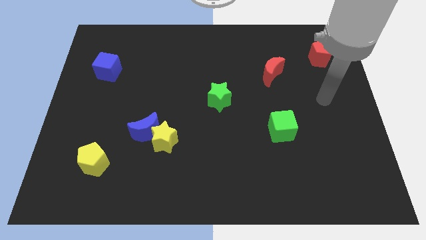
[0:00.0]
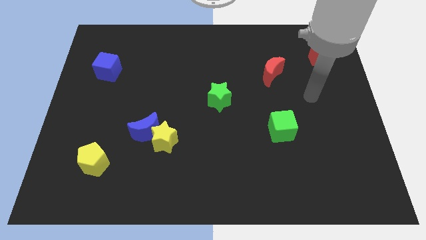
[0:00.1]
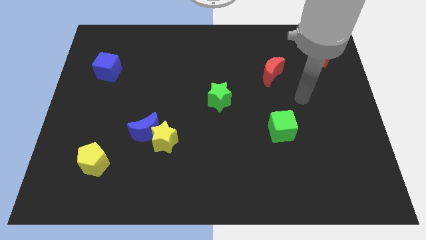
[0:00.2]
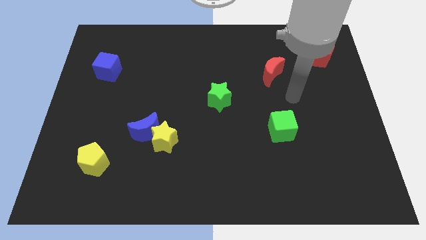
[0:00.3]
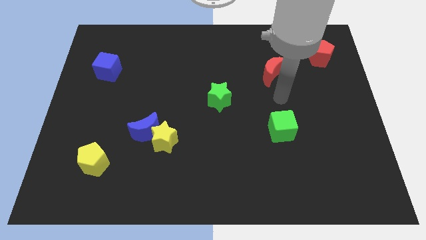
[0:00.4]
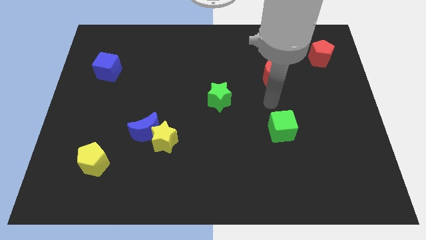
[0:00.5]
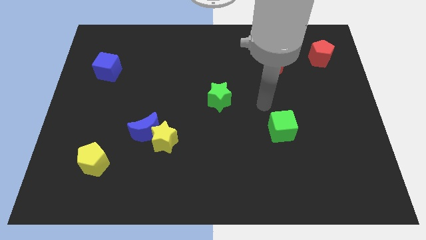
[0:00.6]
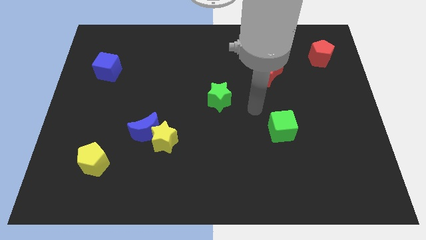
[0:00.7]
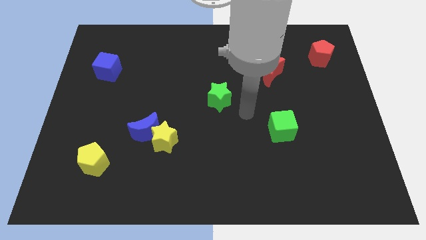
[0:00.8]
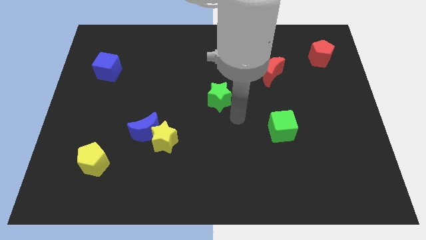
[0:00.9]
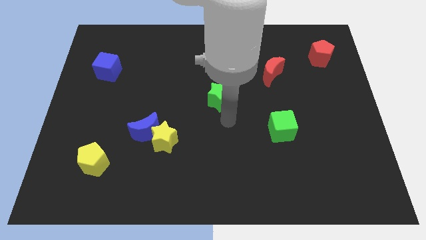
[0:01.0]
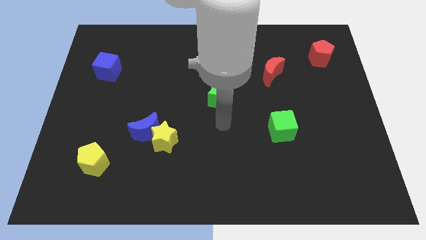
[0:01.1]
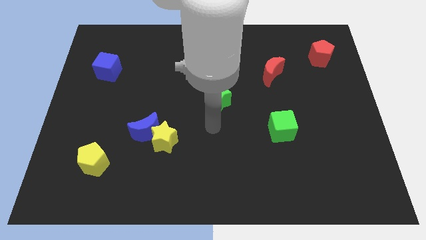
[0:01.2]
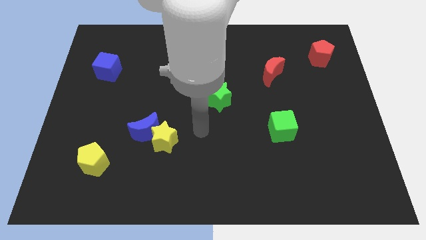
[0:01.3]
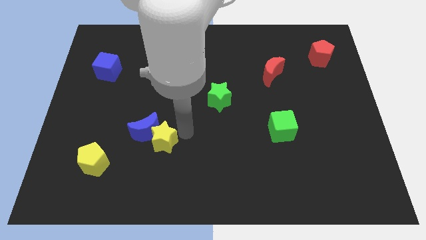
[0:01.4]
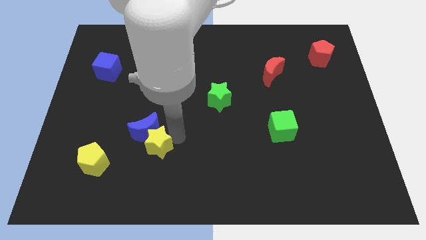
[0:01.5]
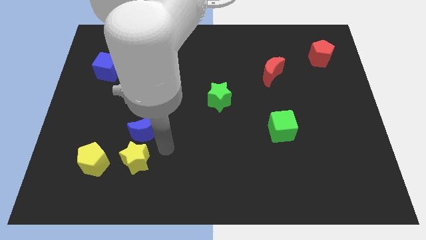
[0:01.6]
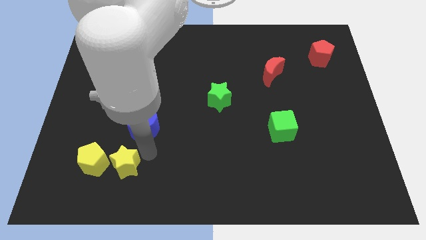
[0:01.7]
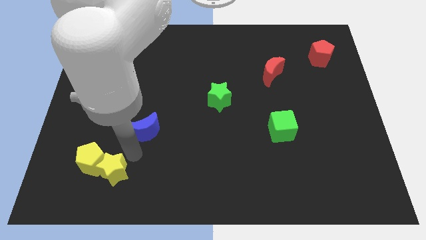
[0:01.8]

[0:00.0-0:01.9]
pull the blue moon apart from the yellow star

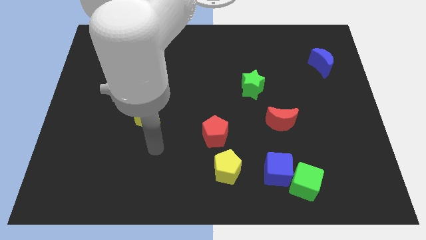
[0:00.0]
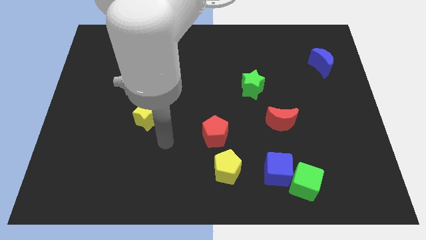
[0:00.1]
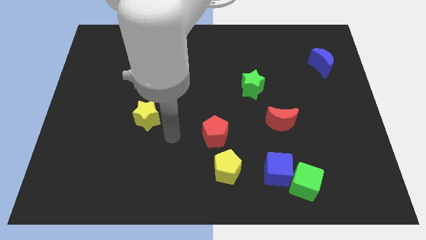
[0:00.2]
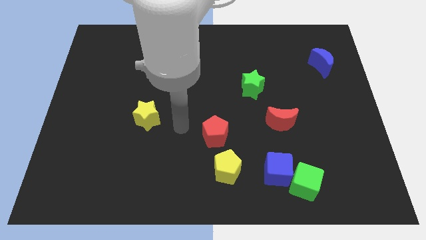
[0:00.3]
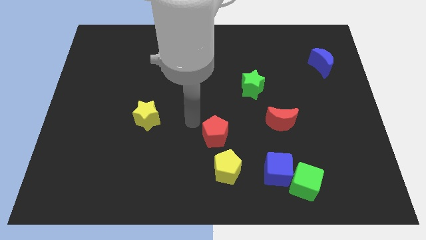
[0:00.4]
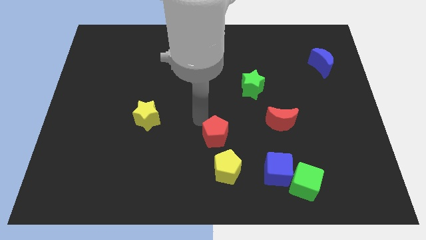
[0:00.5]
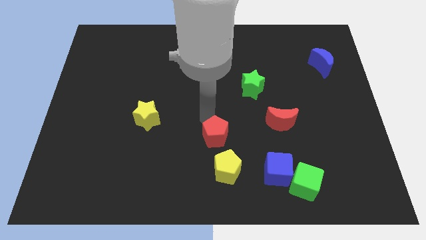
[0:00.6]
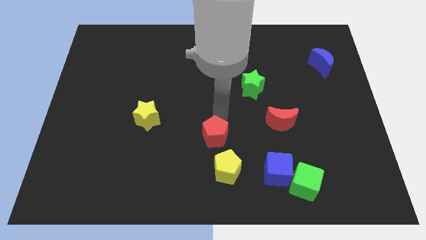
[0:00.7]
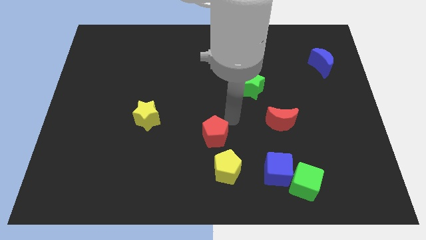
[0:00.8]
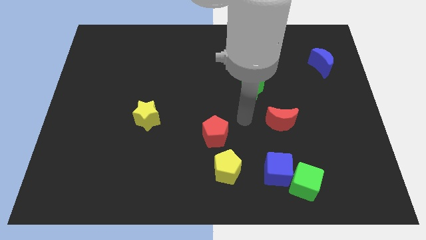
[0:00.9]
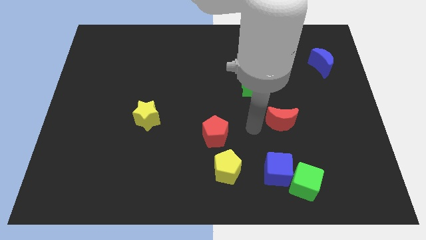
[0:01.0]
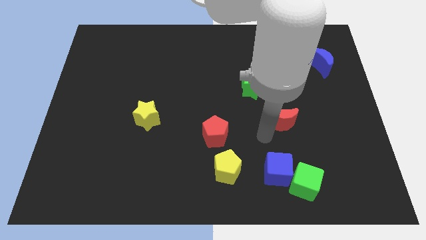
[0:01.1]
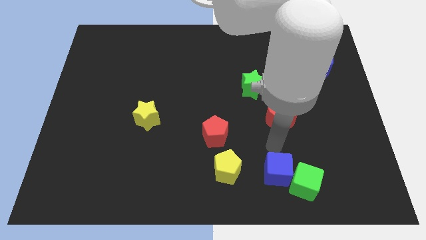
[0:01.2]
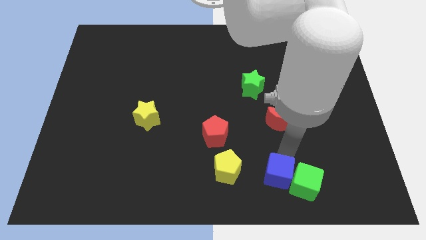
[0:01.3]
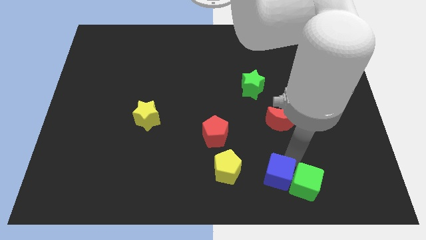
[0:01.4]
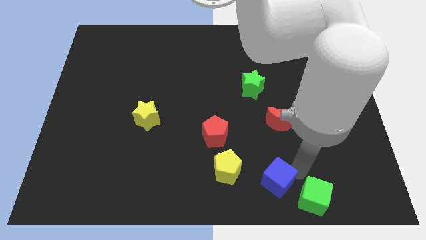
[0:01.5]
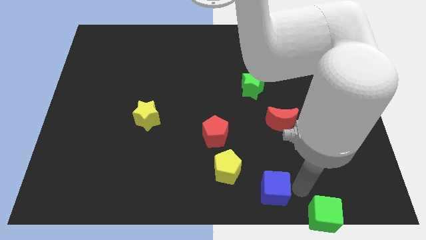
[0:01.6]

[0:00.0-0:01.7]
separate the blue cube from the green cube

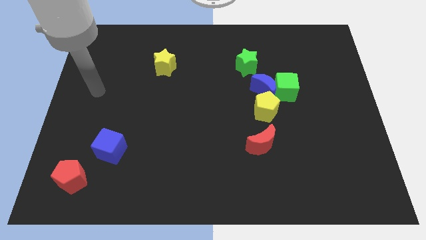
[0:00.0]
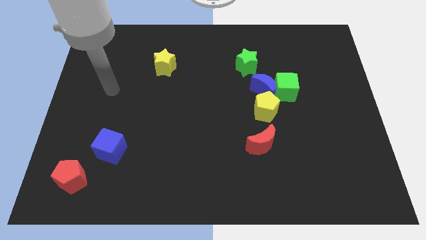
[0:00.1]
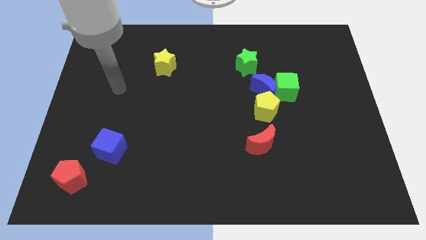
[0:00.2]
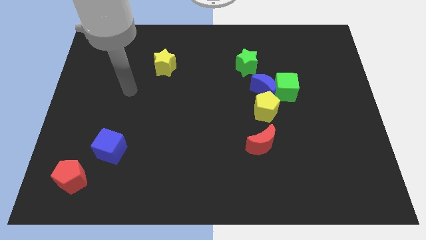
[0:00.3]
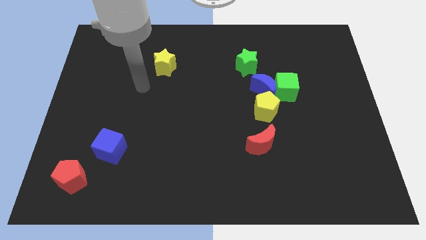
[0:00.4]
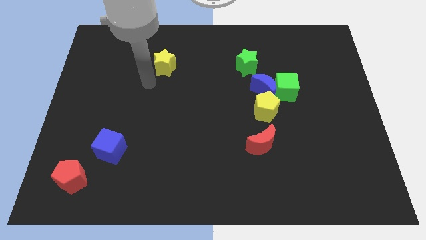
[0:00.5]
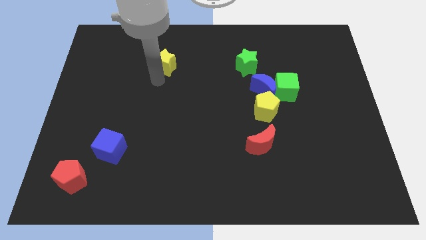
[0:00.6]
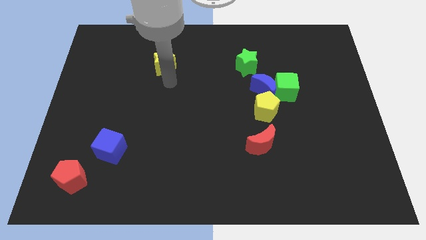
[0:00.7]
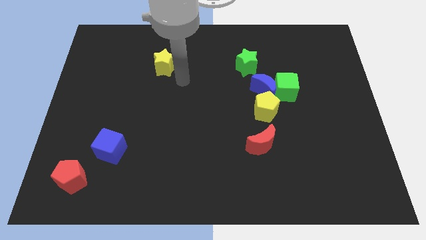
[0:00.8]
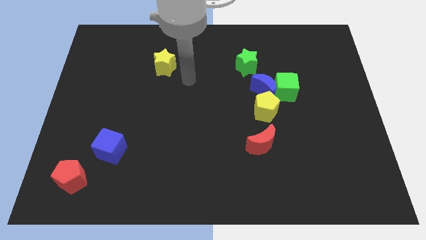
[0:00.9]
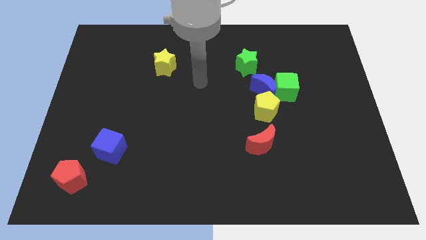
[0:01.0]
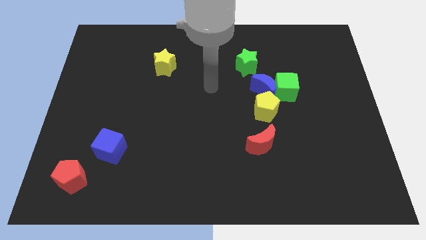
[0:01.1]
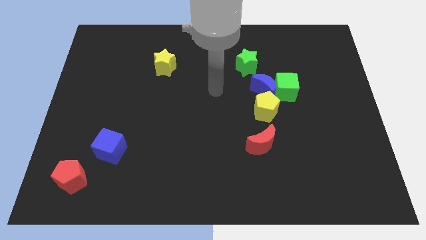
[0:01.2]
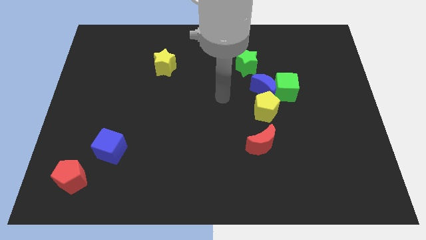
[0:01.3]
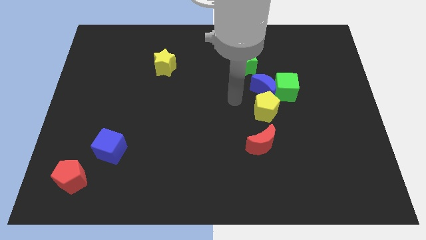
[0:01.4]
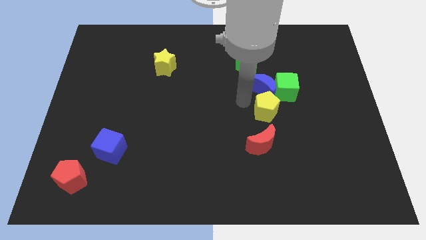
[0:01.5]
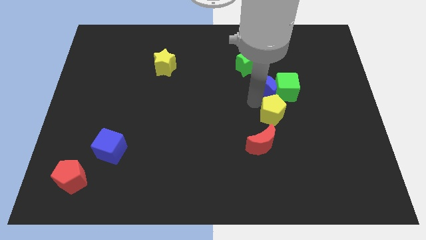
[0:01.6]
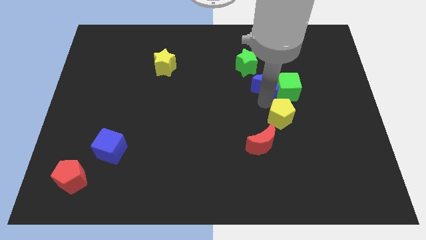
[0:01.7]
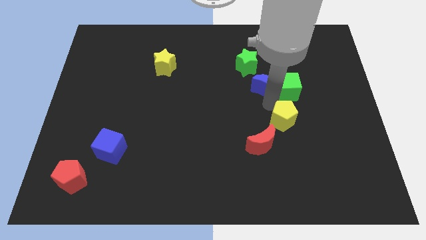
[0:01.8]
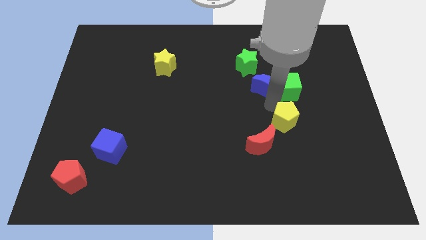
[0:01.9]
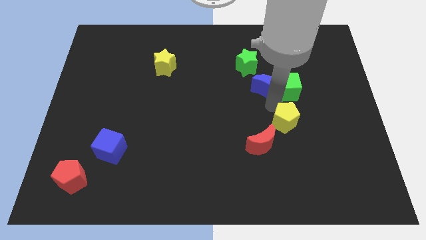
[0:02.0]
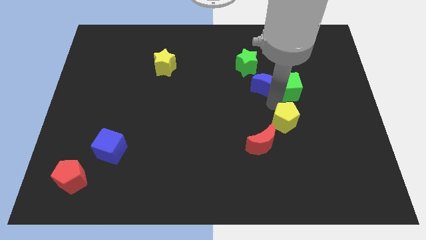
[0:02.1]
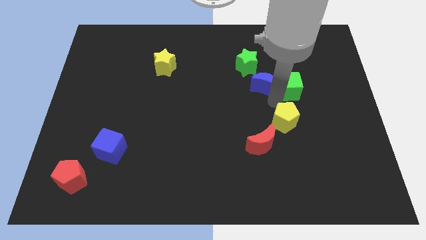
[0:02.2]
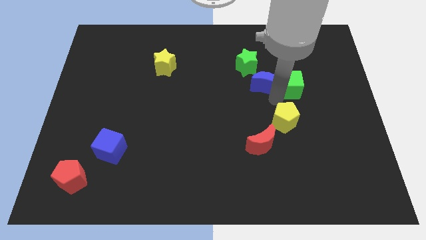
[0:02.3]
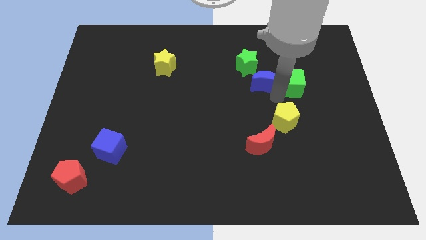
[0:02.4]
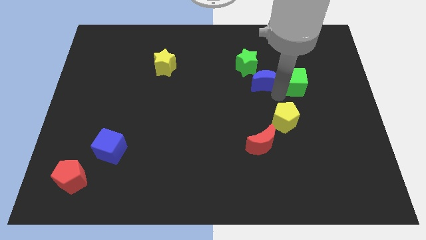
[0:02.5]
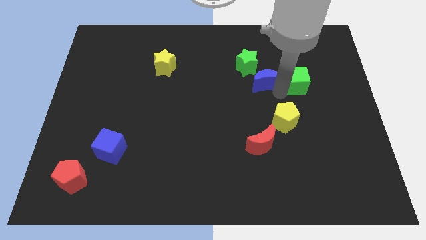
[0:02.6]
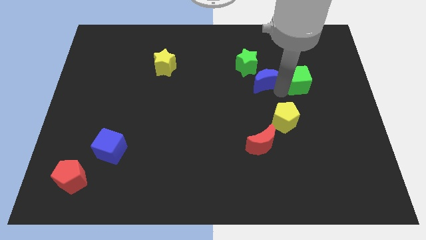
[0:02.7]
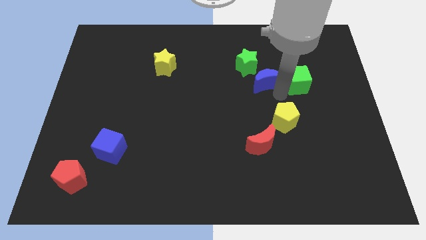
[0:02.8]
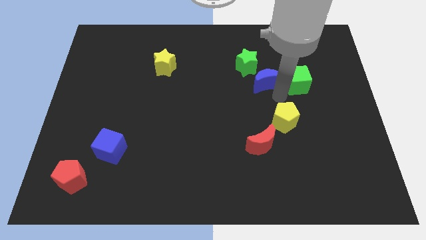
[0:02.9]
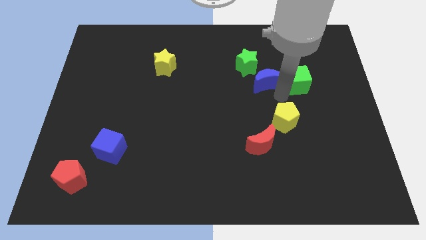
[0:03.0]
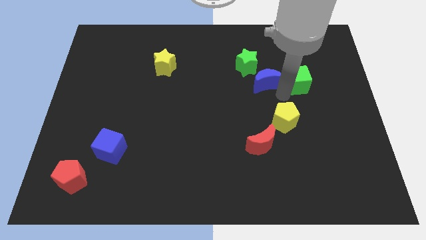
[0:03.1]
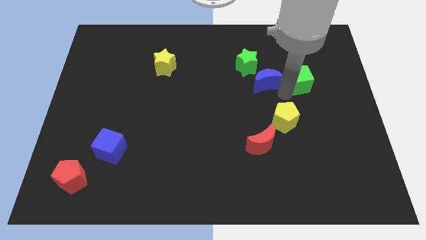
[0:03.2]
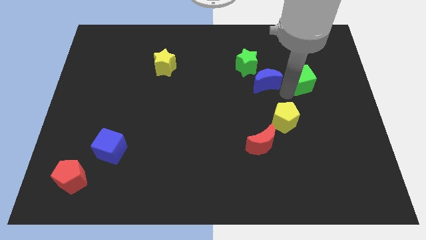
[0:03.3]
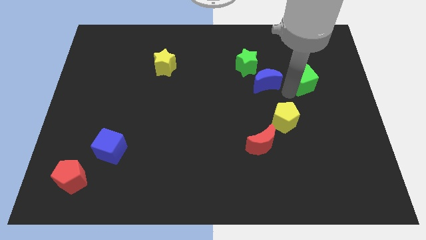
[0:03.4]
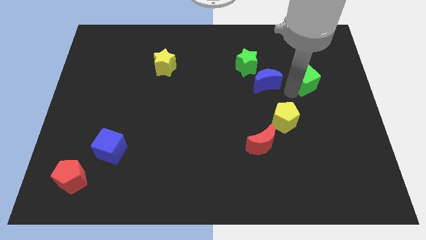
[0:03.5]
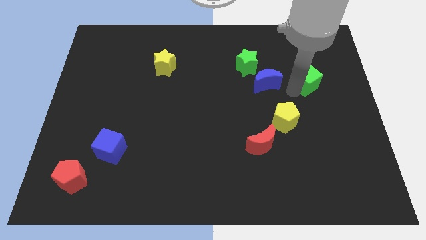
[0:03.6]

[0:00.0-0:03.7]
move the green cube away from the blue moon and yellow pentagon

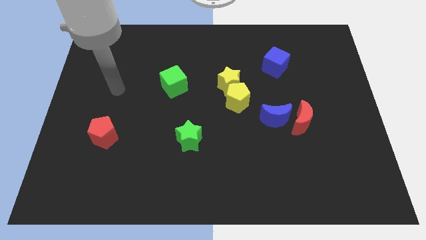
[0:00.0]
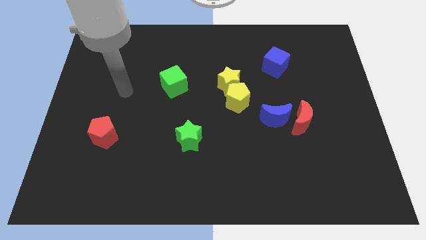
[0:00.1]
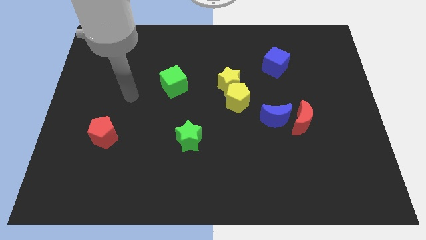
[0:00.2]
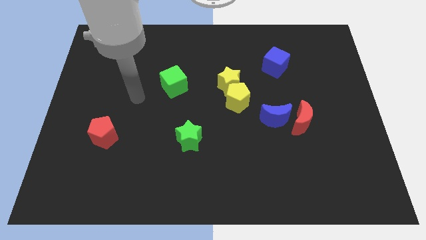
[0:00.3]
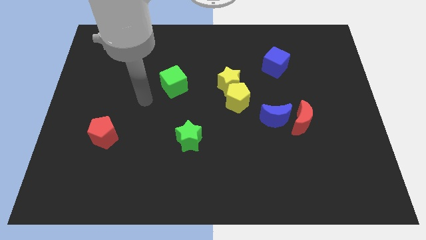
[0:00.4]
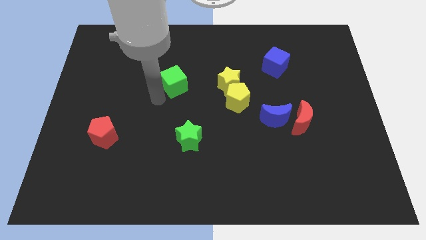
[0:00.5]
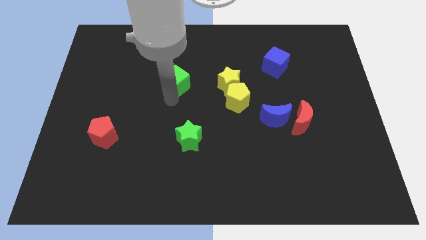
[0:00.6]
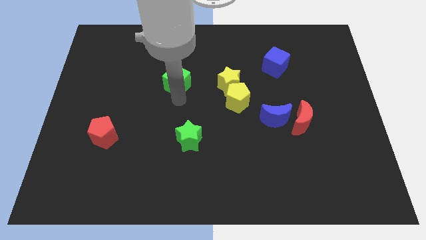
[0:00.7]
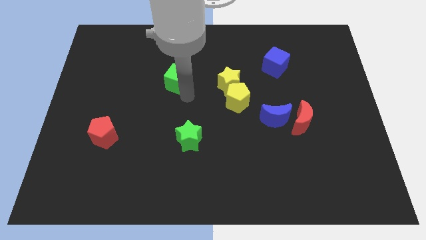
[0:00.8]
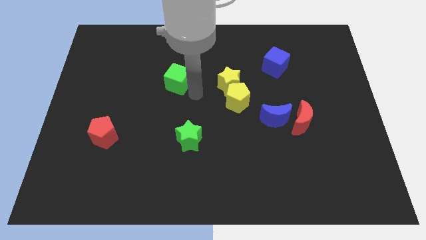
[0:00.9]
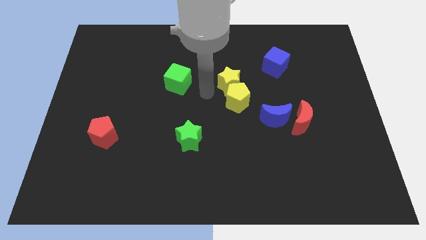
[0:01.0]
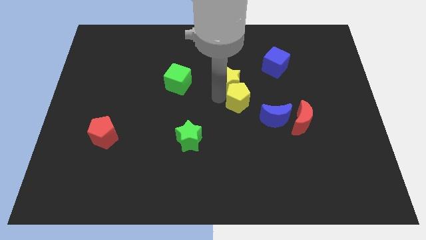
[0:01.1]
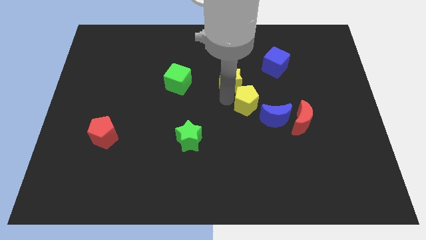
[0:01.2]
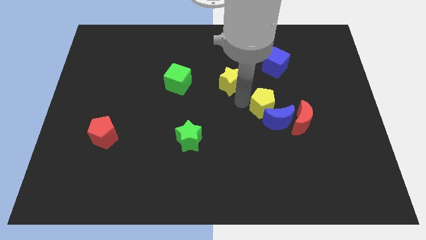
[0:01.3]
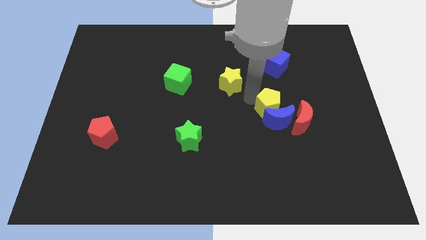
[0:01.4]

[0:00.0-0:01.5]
move the yellow star away from the yellow pentagon

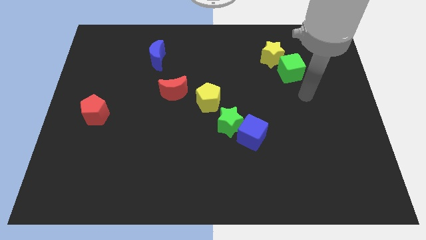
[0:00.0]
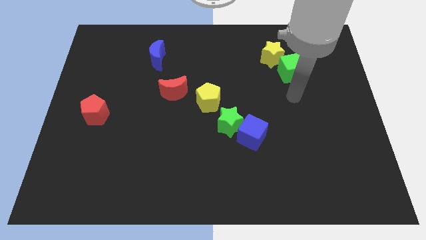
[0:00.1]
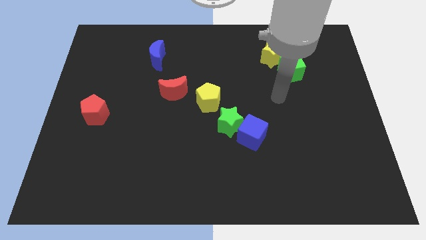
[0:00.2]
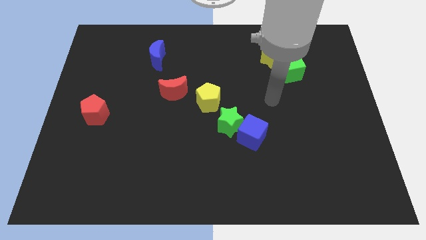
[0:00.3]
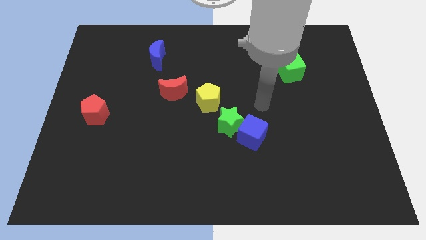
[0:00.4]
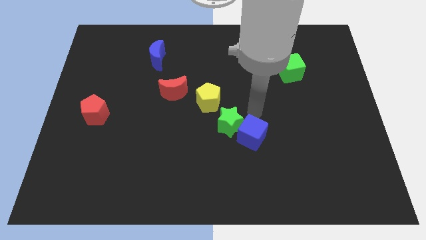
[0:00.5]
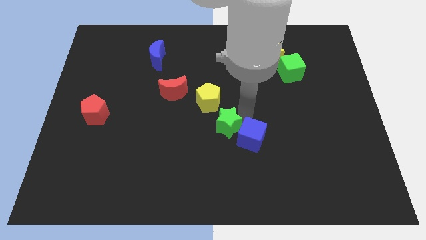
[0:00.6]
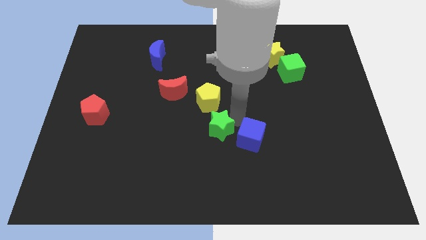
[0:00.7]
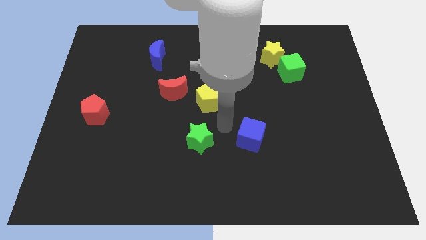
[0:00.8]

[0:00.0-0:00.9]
move the blue cube away from the green star
